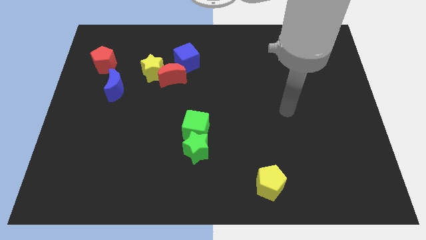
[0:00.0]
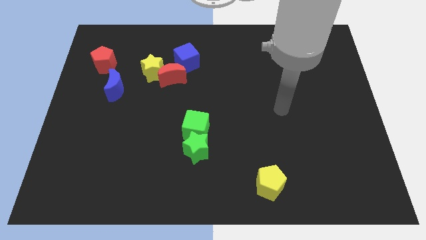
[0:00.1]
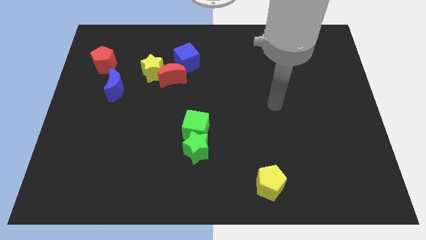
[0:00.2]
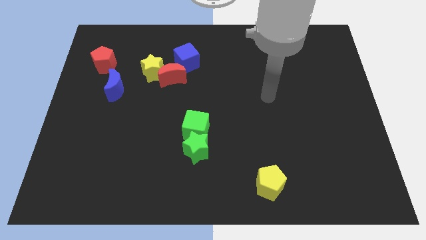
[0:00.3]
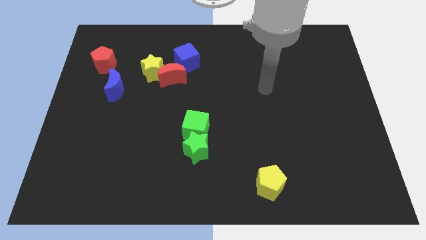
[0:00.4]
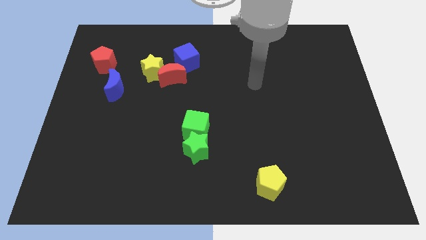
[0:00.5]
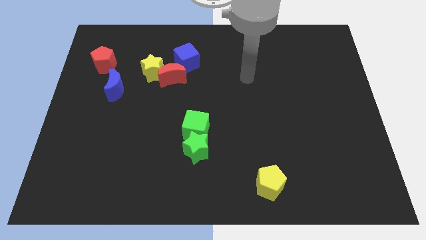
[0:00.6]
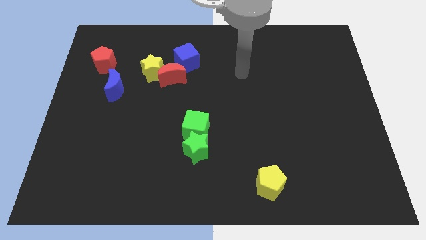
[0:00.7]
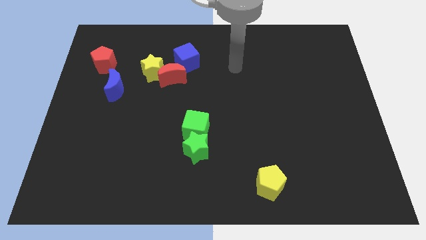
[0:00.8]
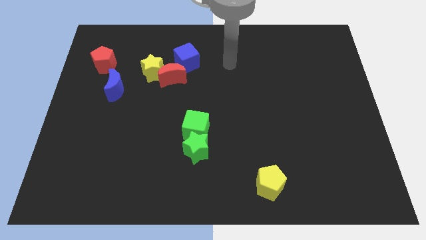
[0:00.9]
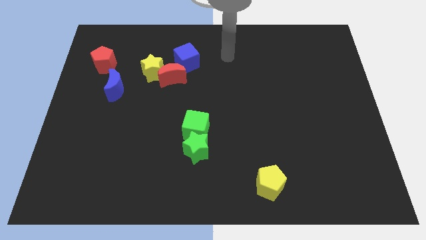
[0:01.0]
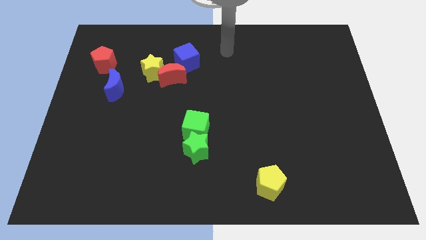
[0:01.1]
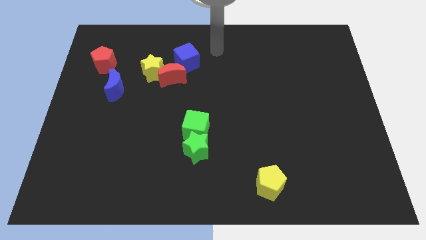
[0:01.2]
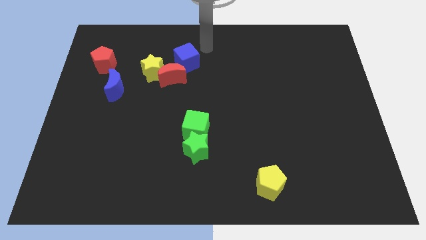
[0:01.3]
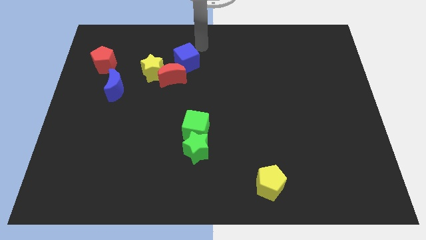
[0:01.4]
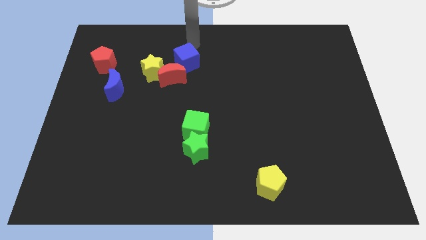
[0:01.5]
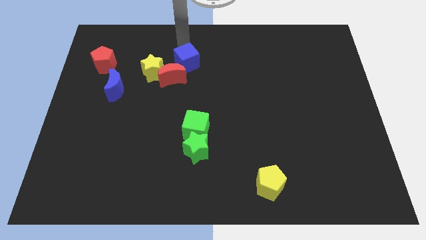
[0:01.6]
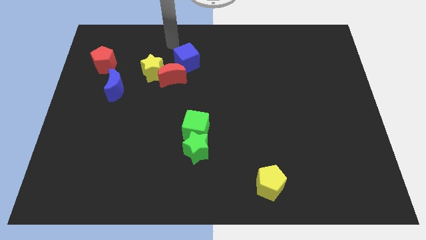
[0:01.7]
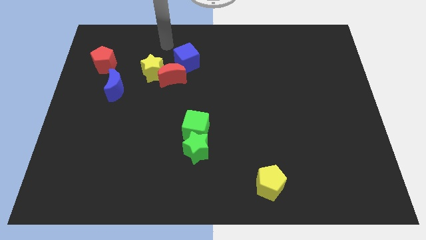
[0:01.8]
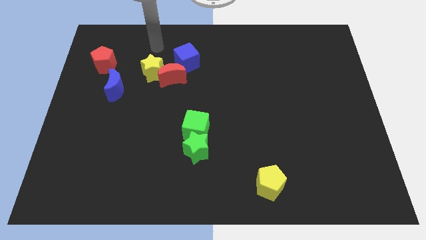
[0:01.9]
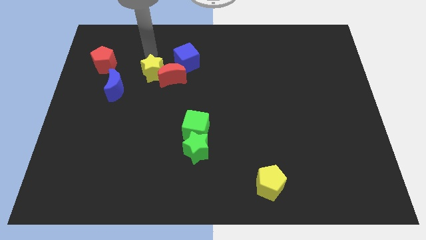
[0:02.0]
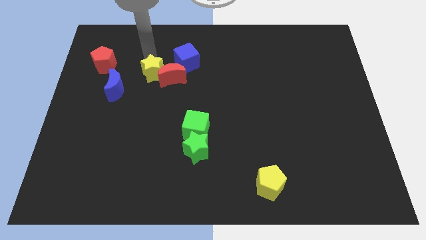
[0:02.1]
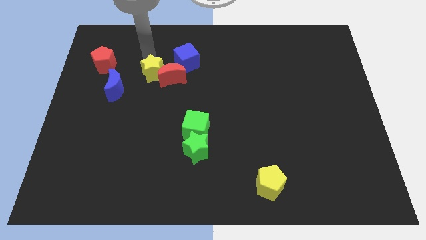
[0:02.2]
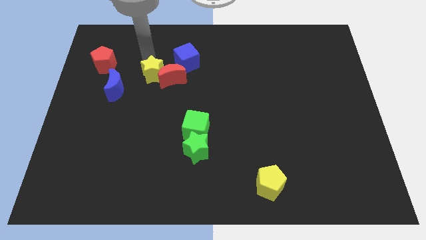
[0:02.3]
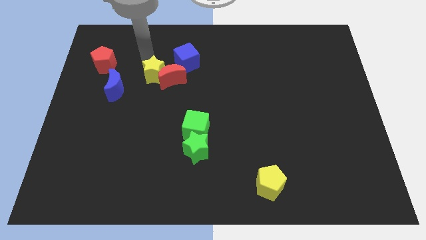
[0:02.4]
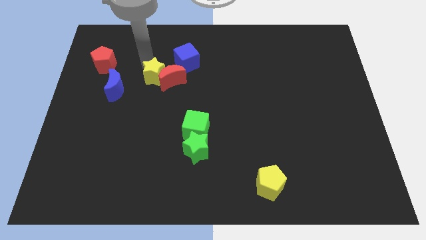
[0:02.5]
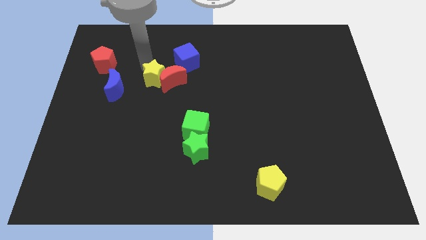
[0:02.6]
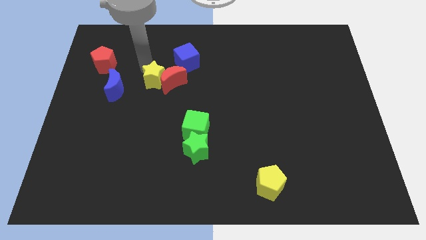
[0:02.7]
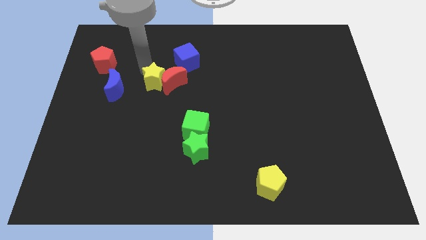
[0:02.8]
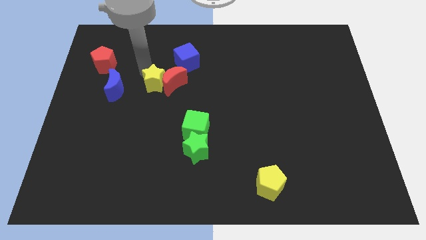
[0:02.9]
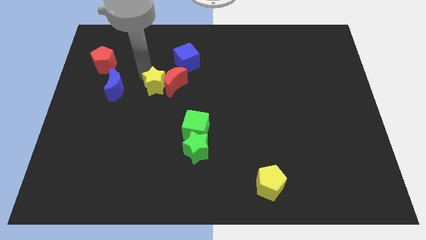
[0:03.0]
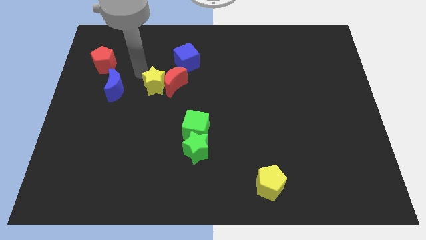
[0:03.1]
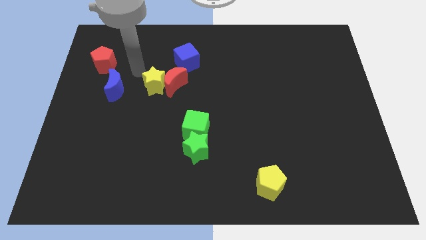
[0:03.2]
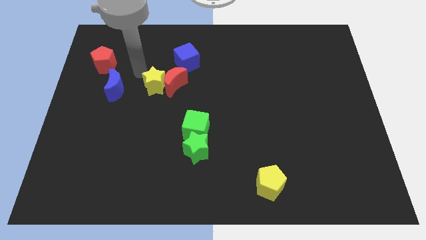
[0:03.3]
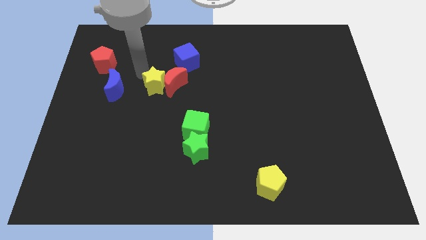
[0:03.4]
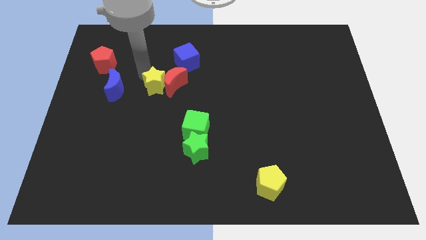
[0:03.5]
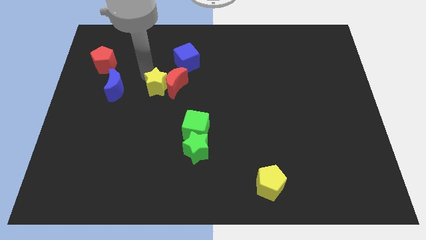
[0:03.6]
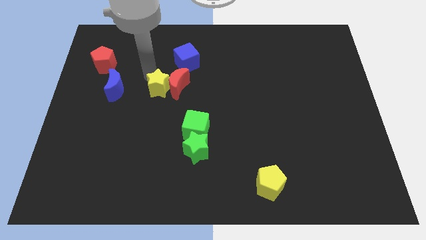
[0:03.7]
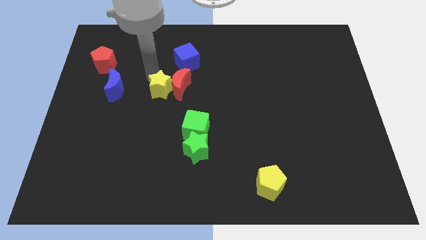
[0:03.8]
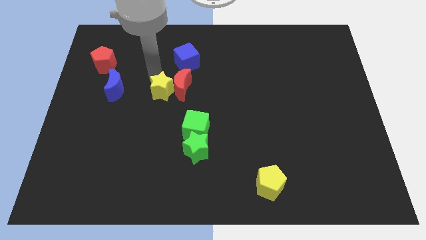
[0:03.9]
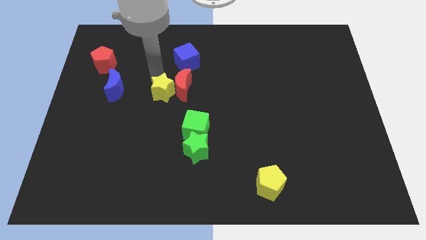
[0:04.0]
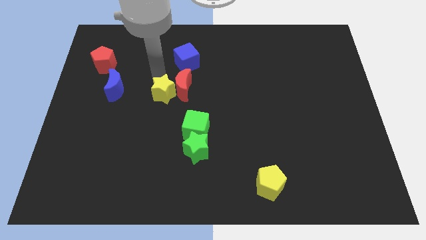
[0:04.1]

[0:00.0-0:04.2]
move the yellow star a bit down and then to the right

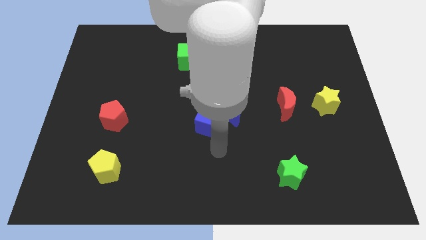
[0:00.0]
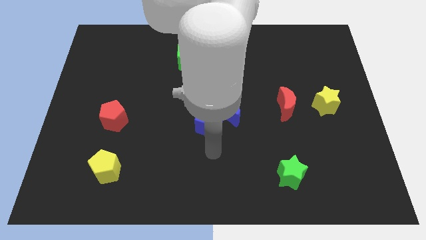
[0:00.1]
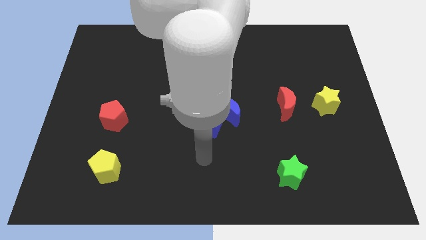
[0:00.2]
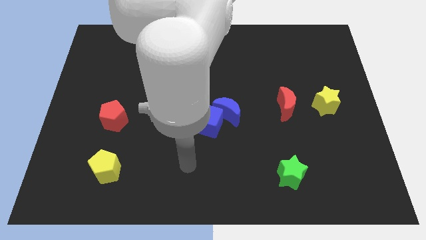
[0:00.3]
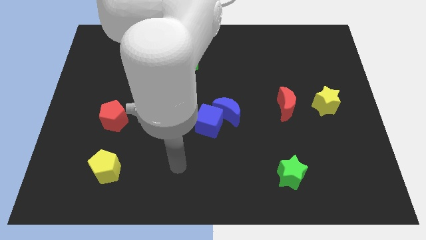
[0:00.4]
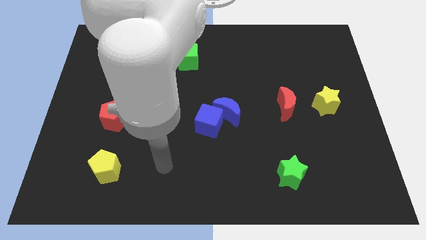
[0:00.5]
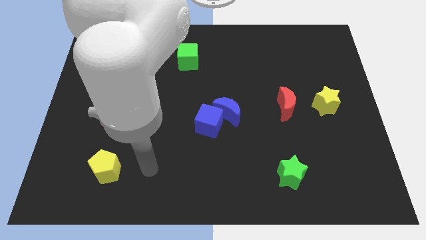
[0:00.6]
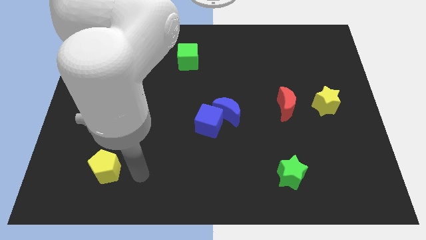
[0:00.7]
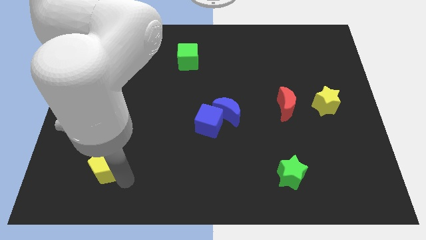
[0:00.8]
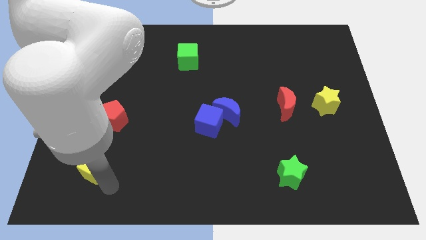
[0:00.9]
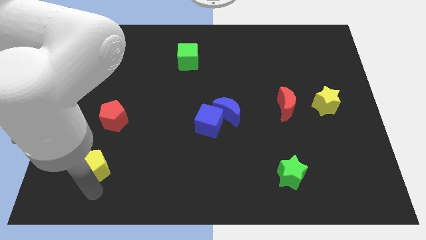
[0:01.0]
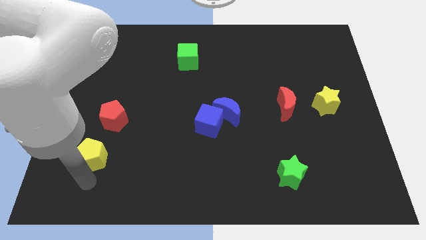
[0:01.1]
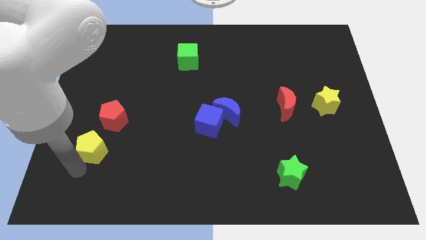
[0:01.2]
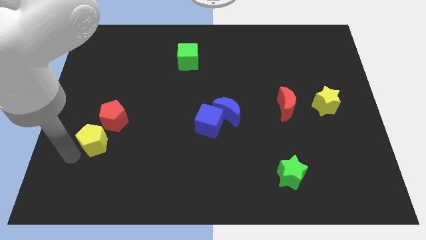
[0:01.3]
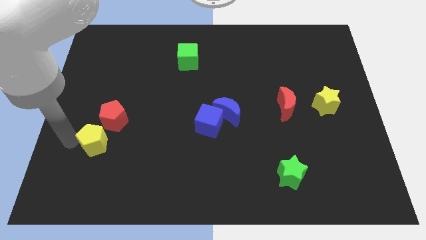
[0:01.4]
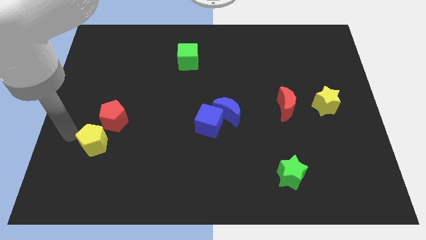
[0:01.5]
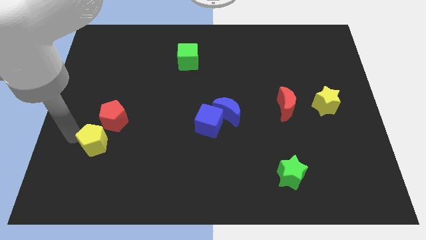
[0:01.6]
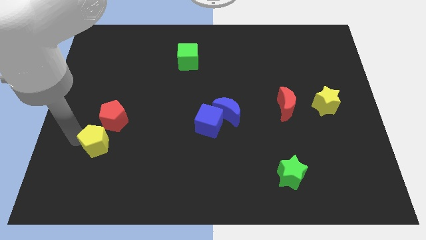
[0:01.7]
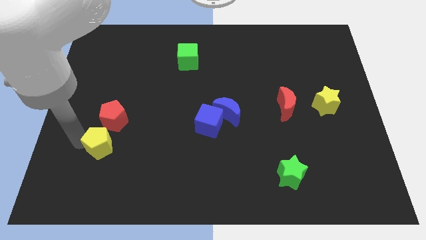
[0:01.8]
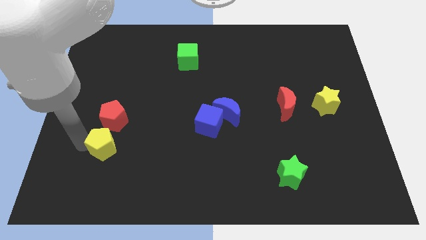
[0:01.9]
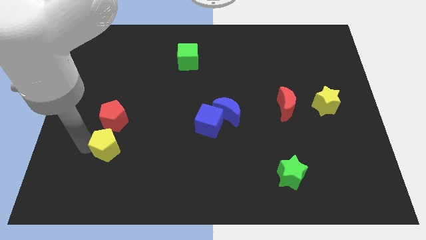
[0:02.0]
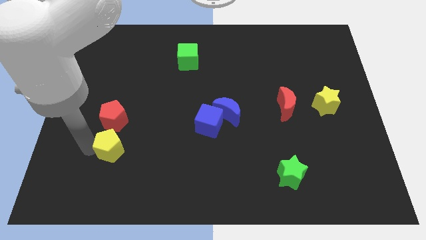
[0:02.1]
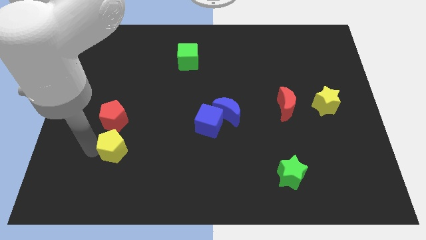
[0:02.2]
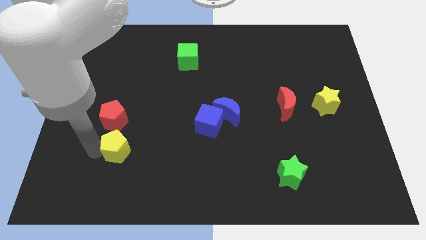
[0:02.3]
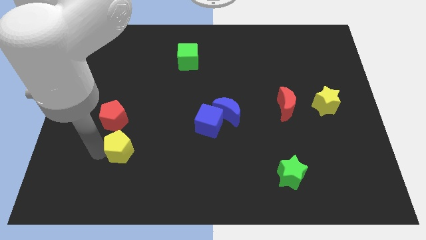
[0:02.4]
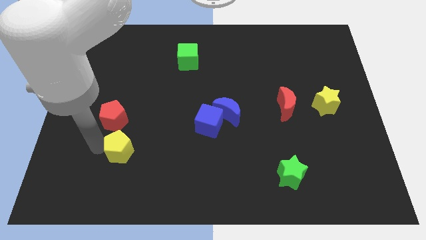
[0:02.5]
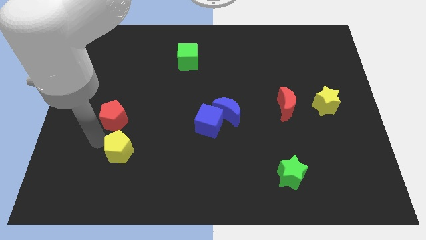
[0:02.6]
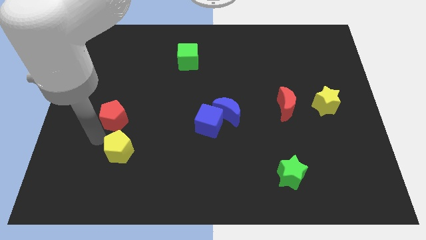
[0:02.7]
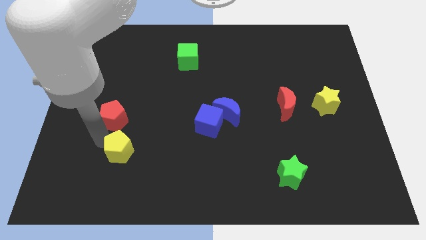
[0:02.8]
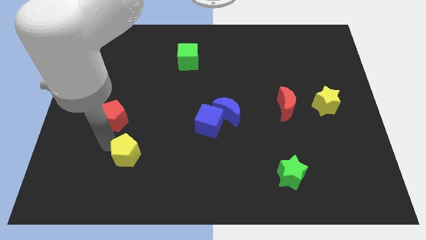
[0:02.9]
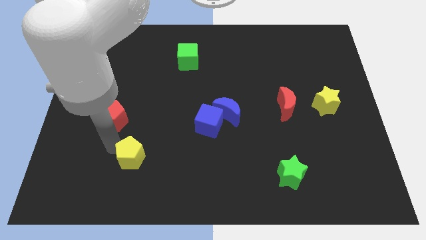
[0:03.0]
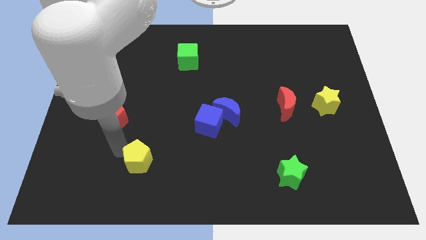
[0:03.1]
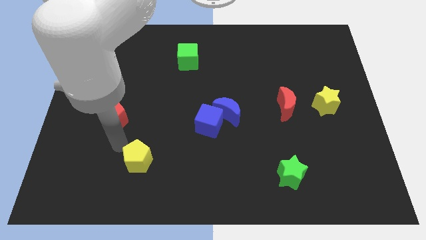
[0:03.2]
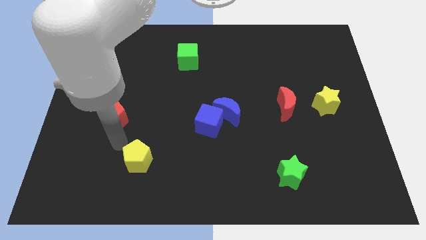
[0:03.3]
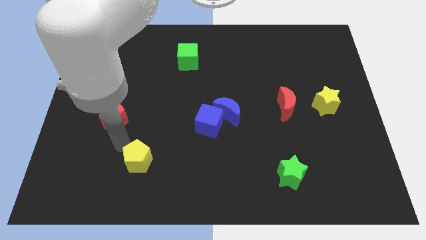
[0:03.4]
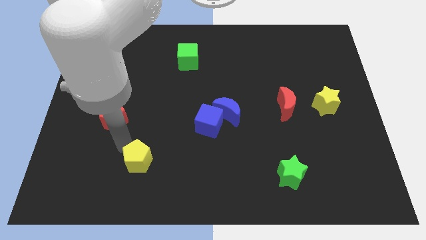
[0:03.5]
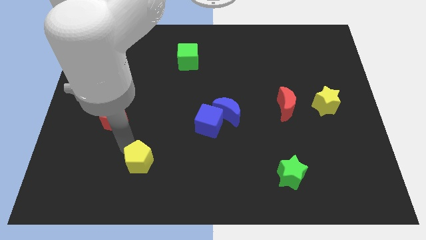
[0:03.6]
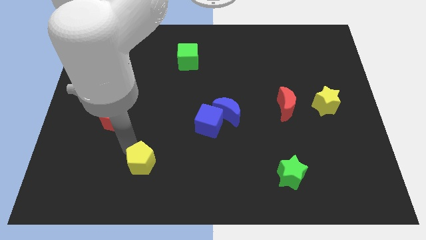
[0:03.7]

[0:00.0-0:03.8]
slightly push the yellow pentagon to the right
